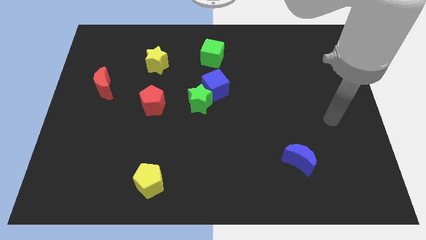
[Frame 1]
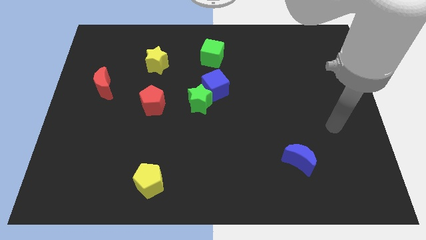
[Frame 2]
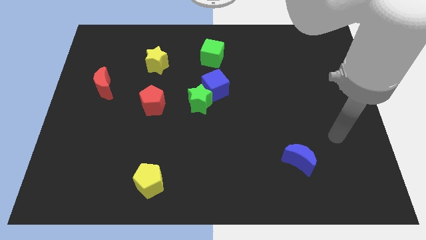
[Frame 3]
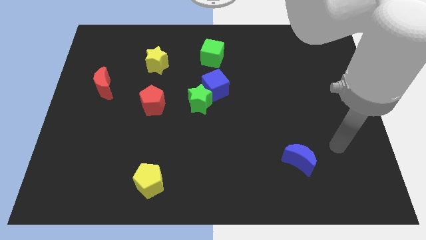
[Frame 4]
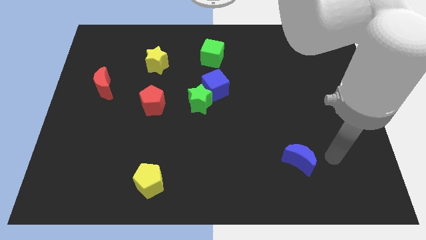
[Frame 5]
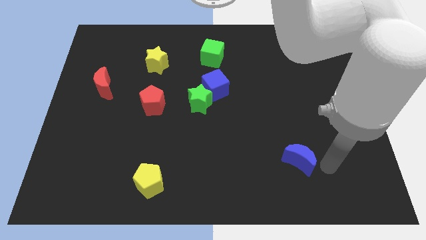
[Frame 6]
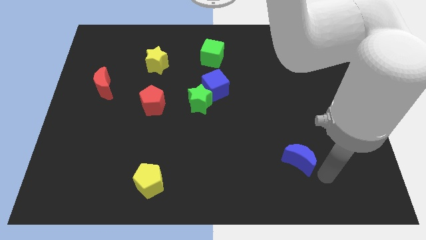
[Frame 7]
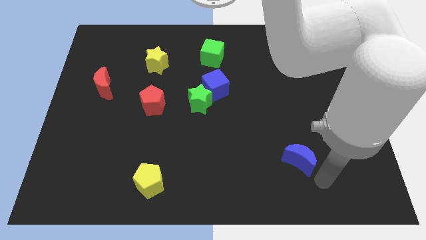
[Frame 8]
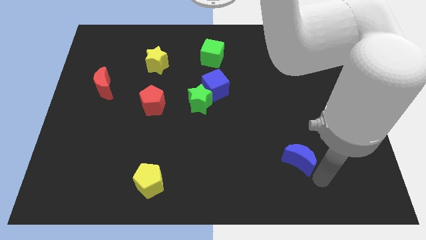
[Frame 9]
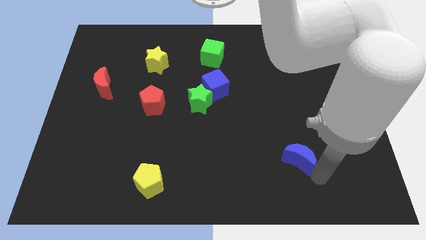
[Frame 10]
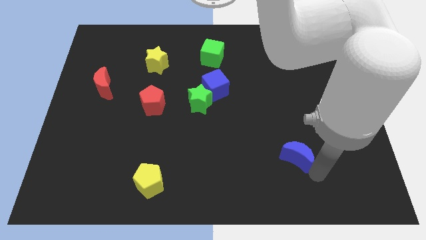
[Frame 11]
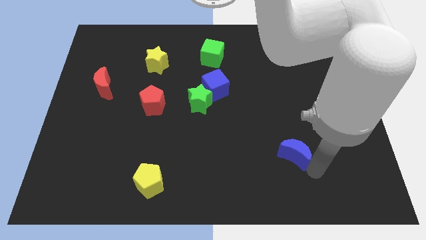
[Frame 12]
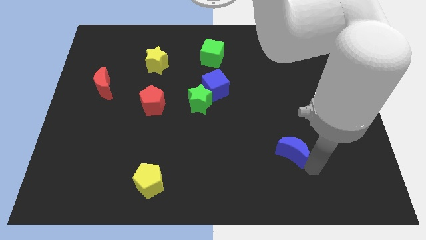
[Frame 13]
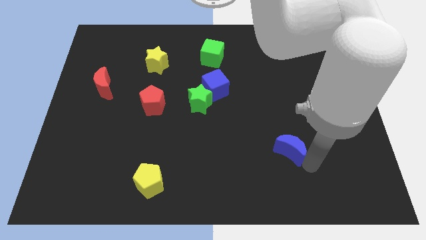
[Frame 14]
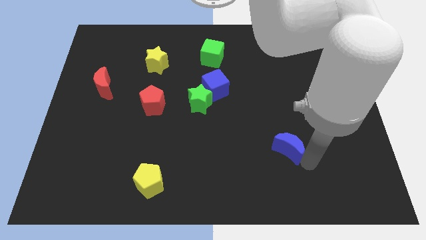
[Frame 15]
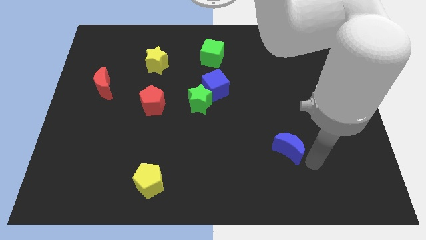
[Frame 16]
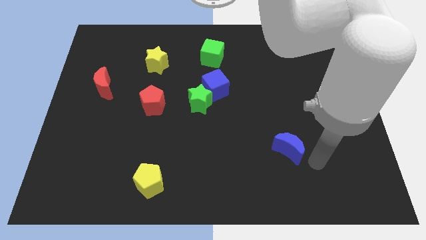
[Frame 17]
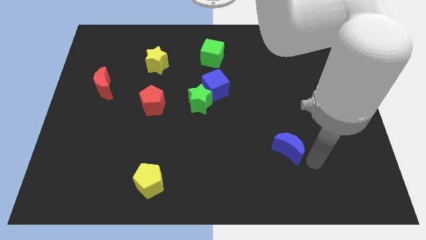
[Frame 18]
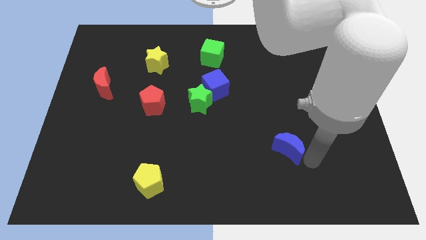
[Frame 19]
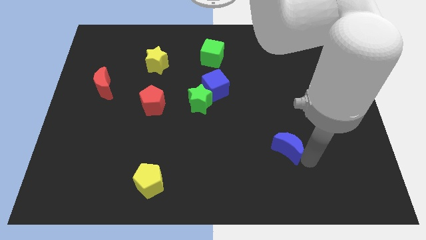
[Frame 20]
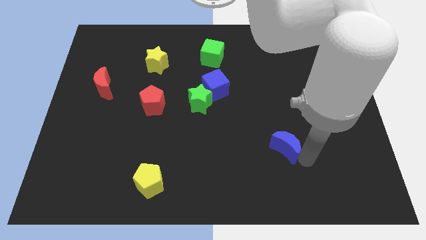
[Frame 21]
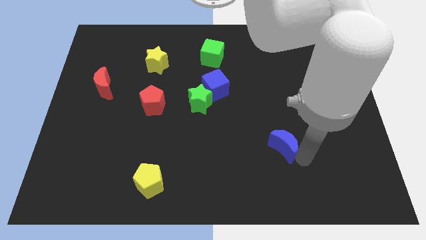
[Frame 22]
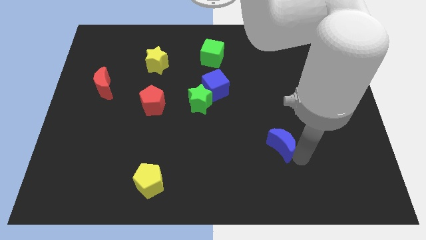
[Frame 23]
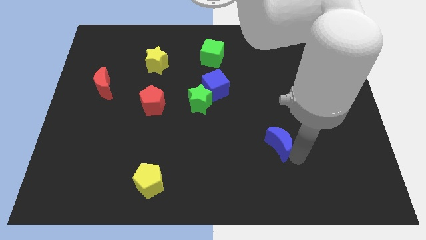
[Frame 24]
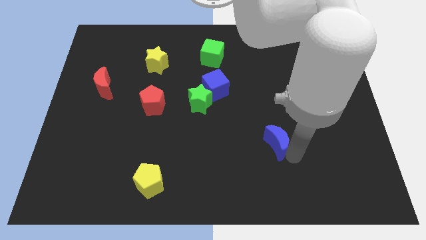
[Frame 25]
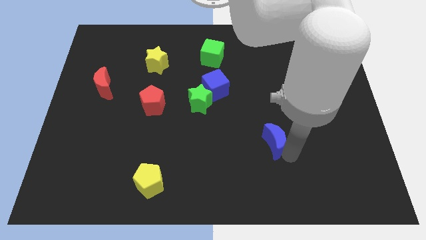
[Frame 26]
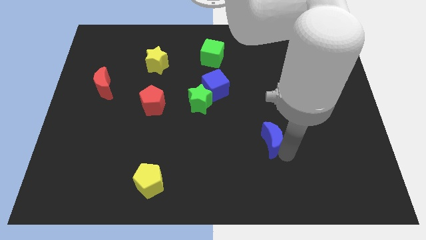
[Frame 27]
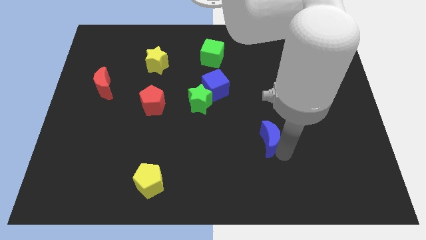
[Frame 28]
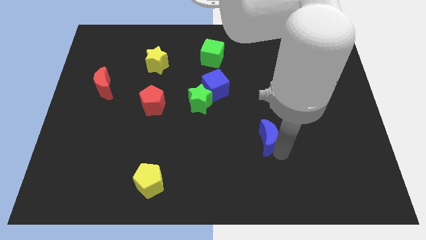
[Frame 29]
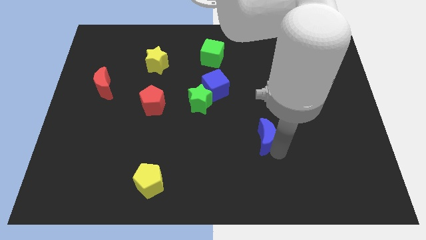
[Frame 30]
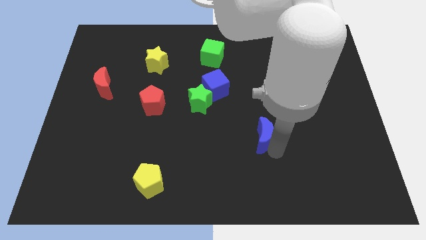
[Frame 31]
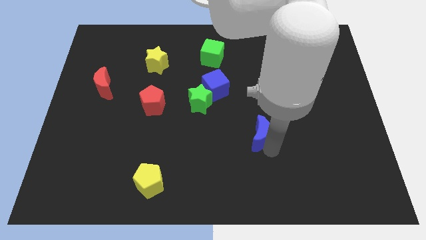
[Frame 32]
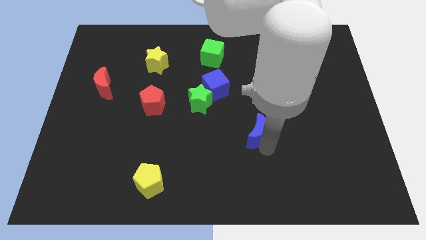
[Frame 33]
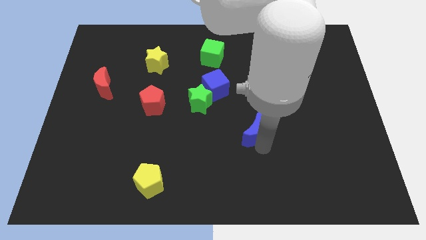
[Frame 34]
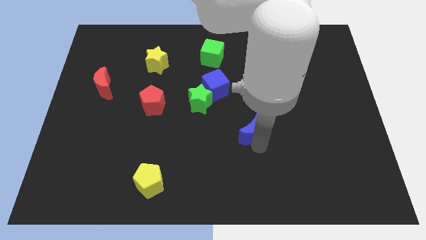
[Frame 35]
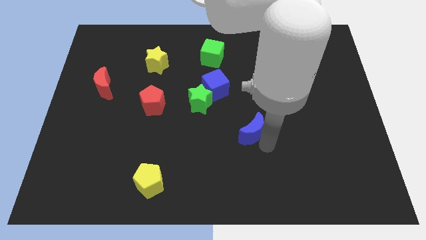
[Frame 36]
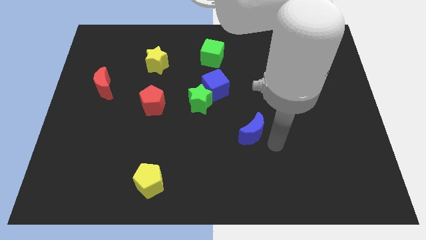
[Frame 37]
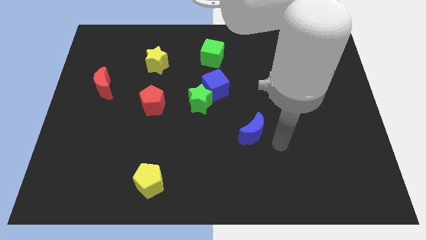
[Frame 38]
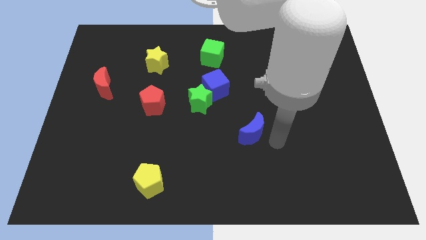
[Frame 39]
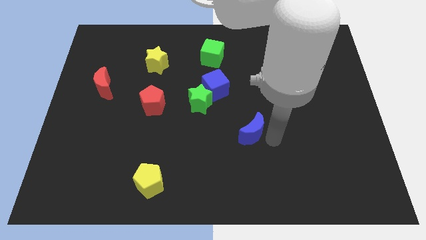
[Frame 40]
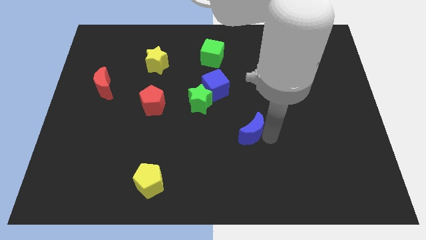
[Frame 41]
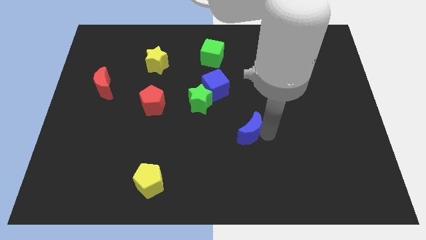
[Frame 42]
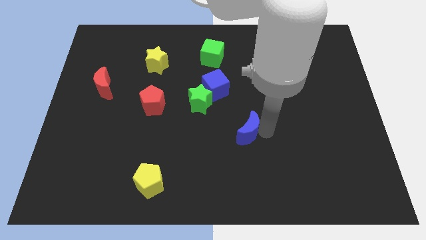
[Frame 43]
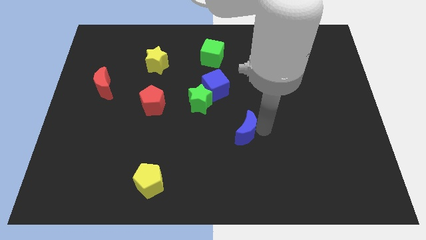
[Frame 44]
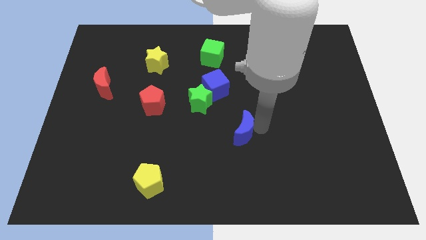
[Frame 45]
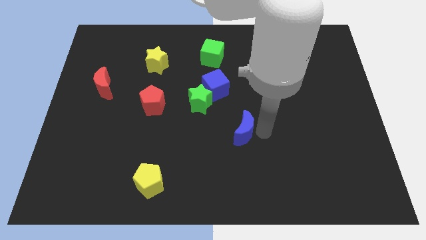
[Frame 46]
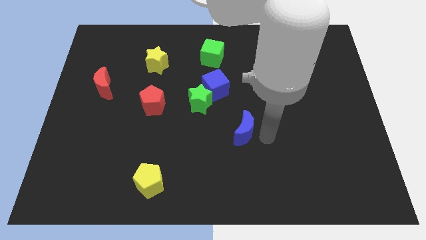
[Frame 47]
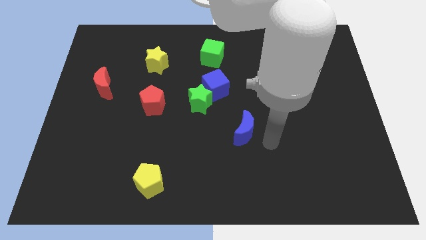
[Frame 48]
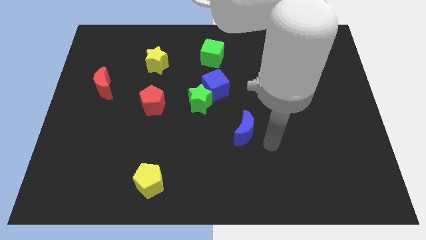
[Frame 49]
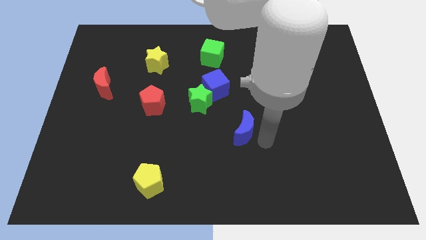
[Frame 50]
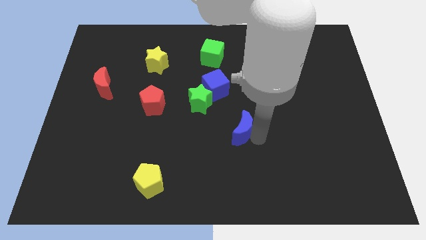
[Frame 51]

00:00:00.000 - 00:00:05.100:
put the blue moon to the bottom right of the green star

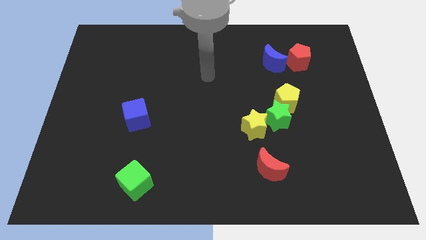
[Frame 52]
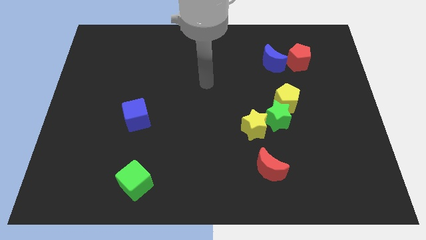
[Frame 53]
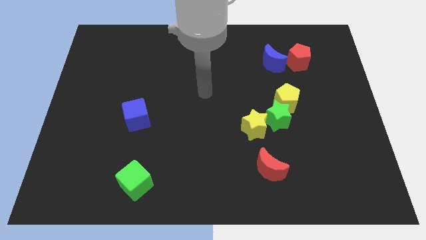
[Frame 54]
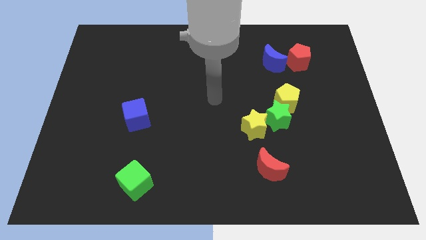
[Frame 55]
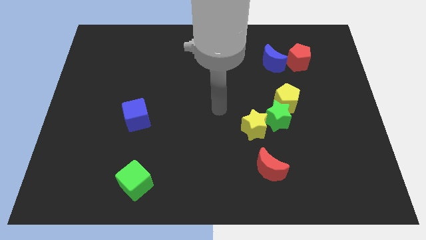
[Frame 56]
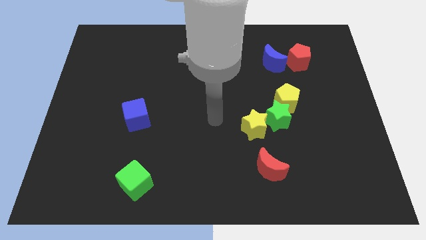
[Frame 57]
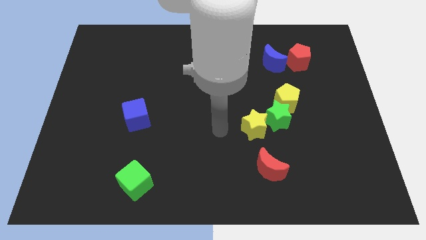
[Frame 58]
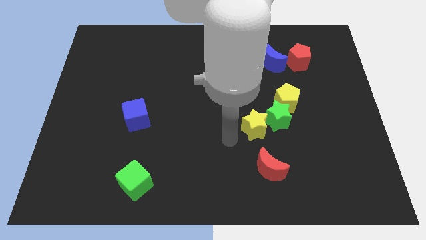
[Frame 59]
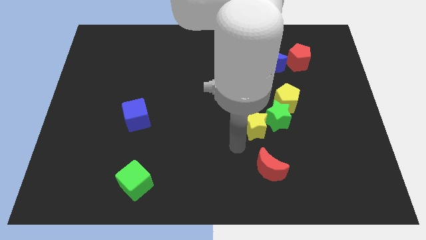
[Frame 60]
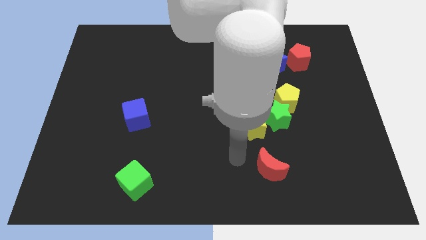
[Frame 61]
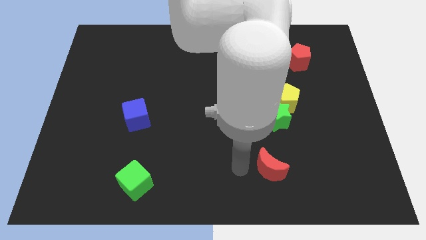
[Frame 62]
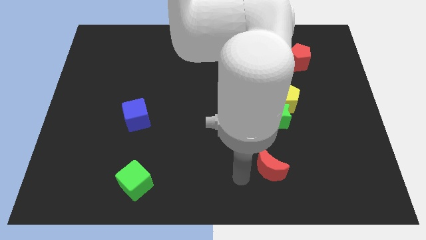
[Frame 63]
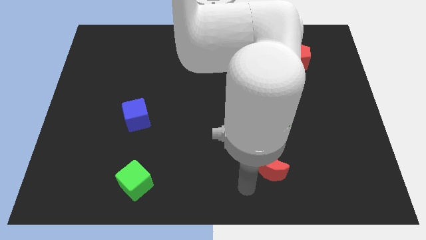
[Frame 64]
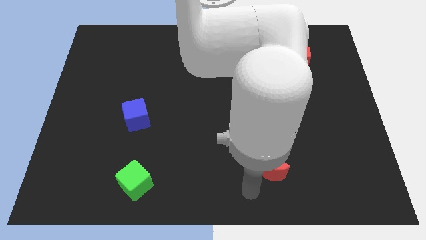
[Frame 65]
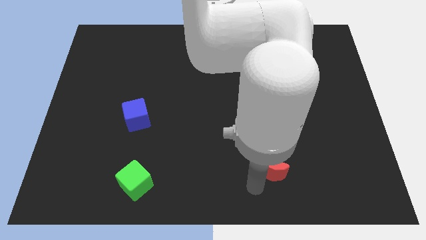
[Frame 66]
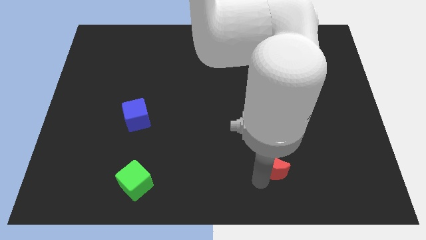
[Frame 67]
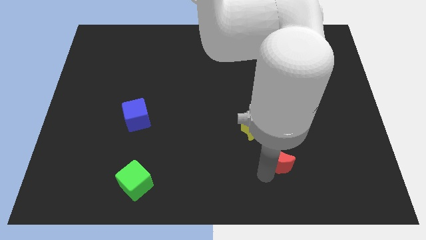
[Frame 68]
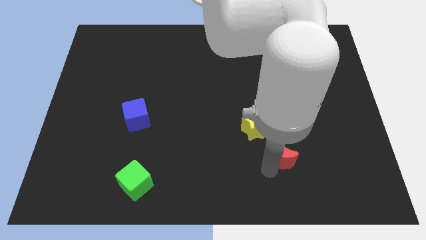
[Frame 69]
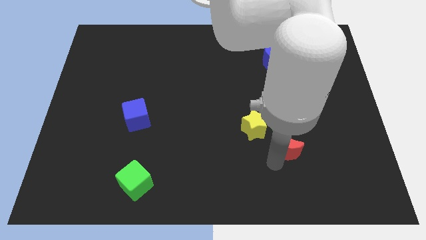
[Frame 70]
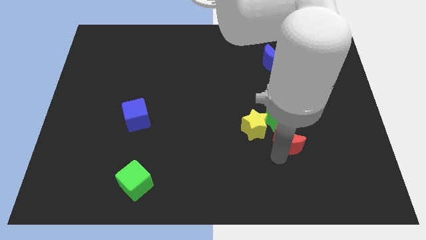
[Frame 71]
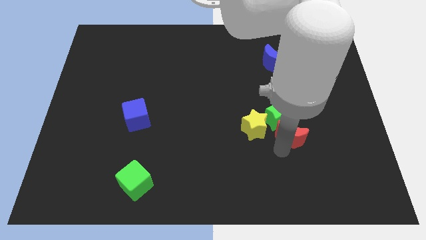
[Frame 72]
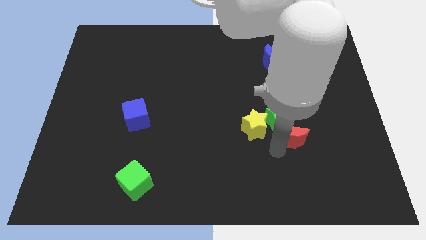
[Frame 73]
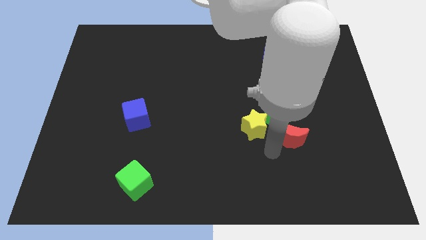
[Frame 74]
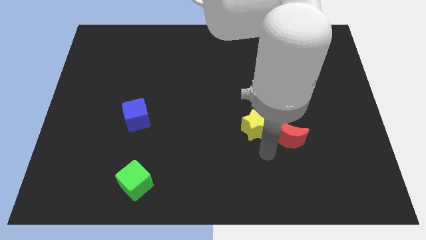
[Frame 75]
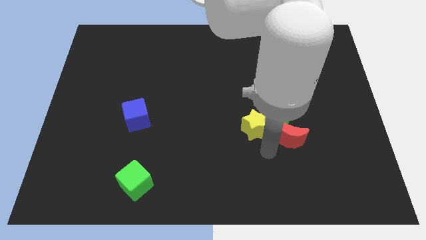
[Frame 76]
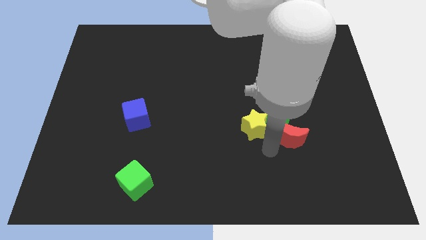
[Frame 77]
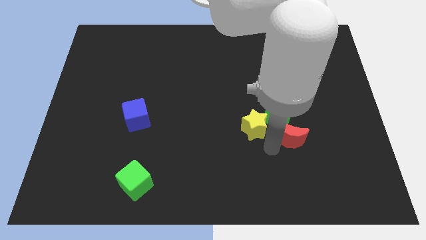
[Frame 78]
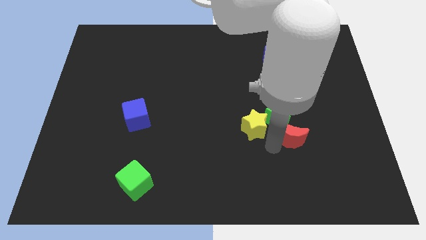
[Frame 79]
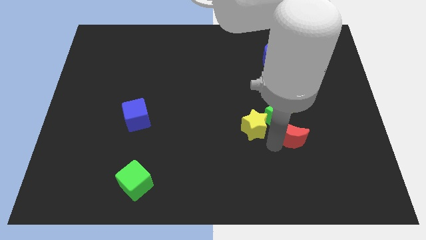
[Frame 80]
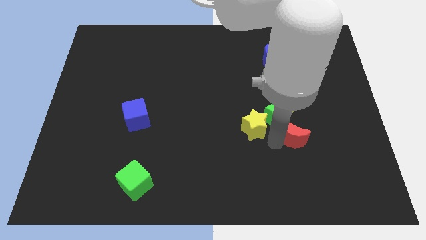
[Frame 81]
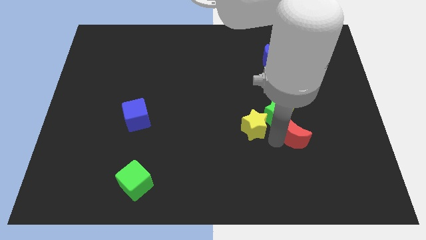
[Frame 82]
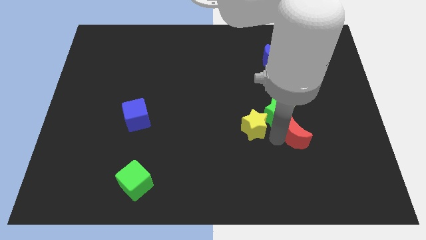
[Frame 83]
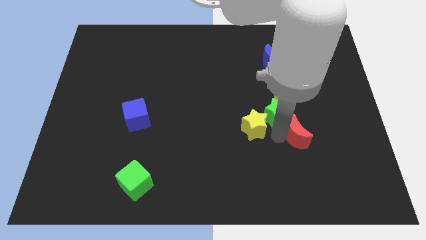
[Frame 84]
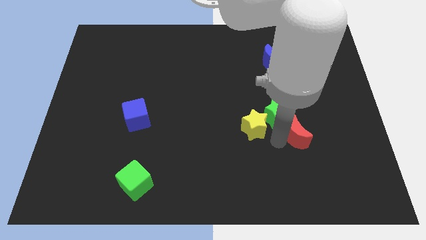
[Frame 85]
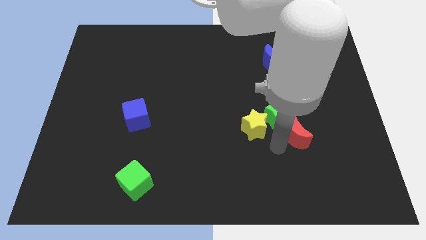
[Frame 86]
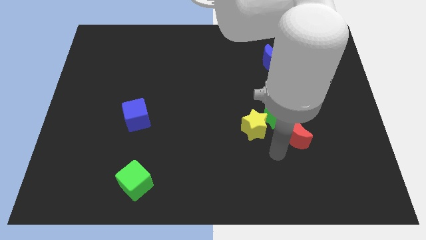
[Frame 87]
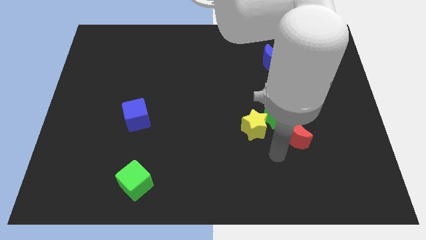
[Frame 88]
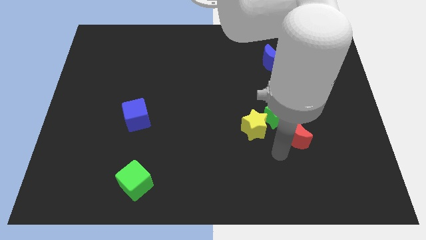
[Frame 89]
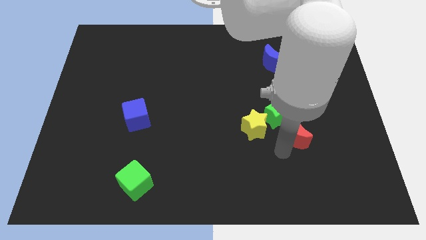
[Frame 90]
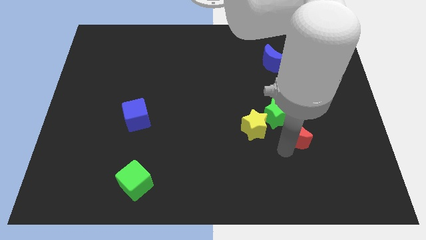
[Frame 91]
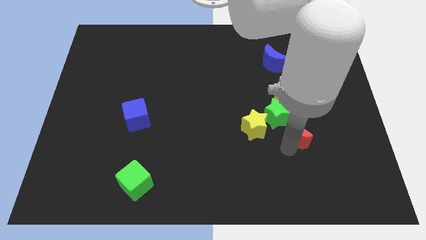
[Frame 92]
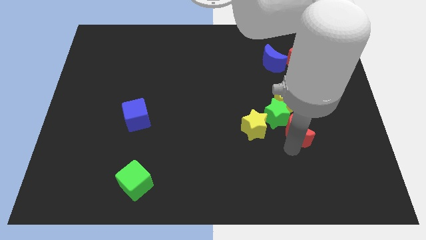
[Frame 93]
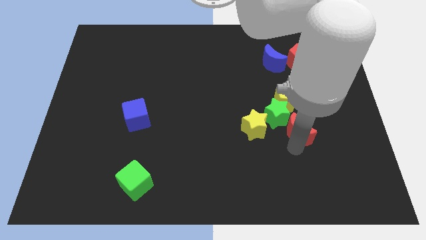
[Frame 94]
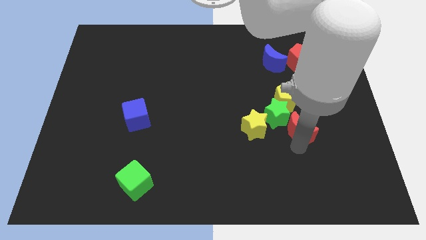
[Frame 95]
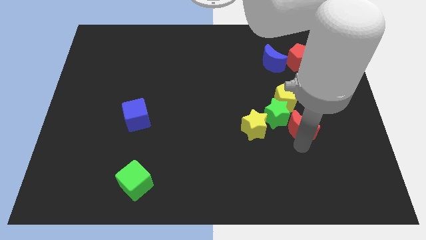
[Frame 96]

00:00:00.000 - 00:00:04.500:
move the red moon diagonally down and to the right of the yellow pentagon
